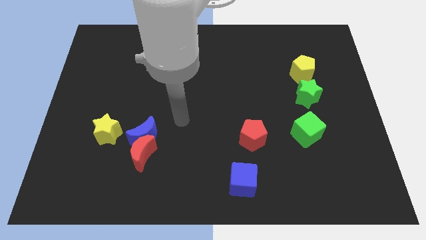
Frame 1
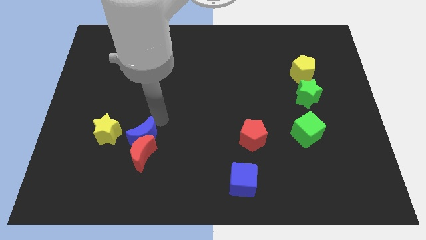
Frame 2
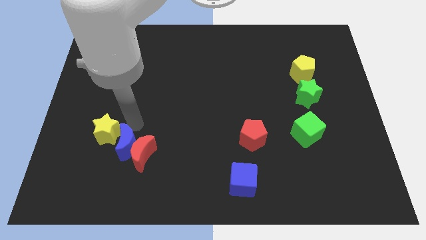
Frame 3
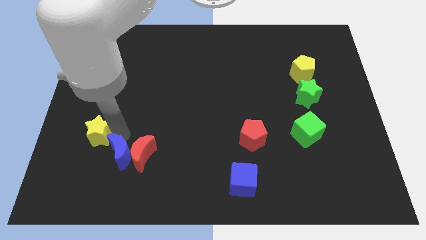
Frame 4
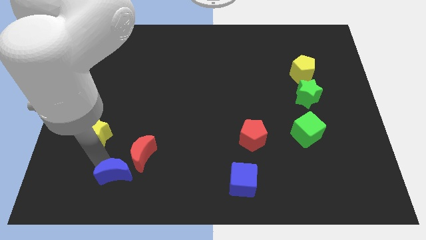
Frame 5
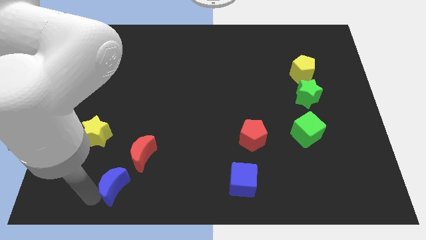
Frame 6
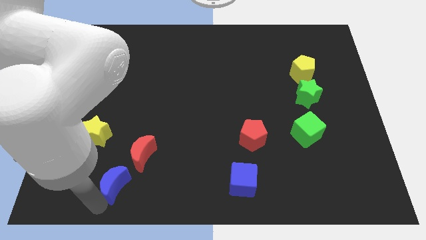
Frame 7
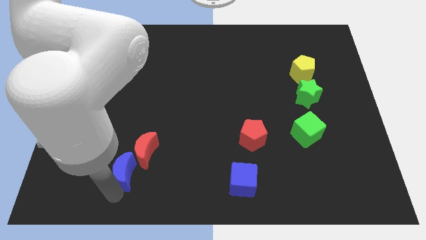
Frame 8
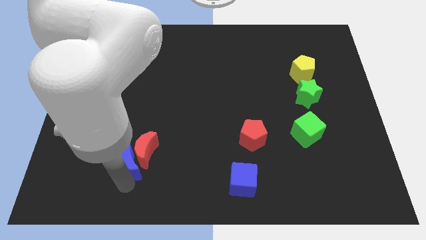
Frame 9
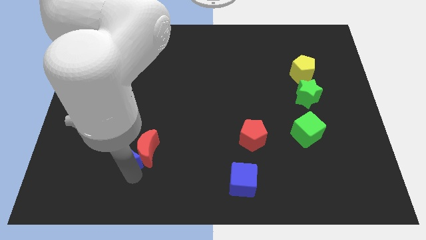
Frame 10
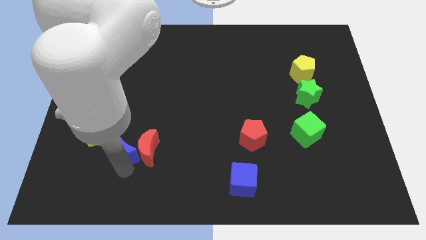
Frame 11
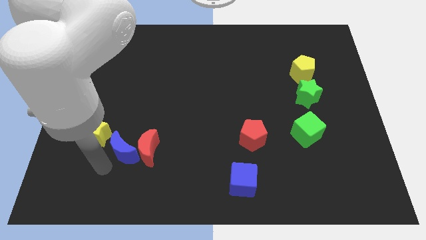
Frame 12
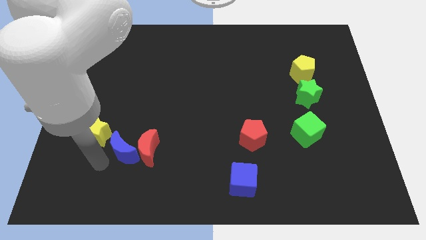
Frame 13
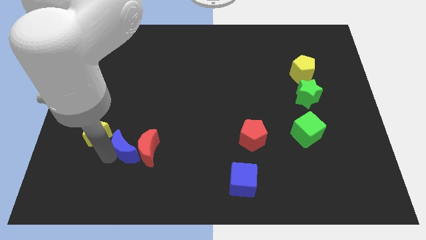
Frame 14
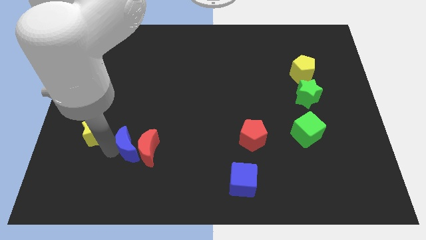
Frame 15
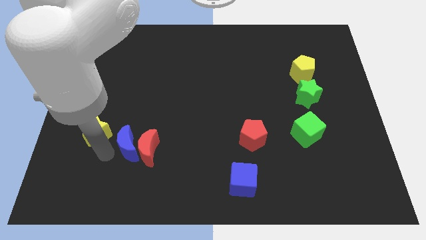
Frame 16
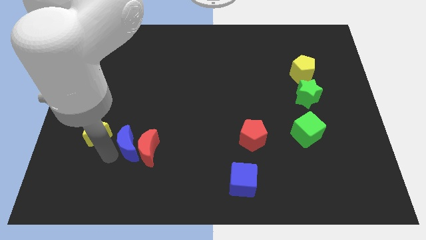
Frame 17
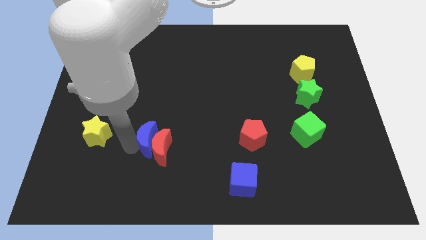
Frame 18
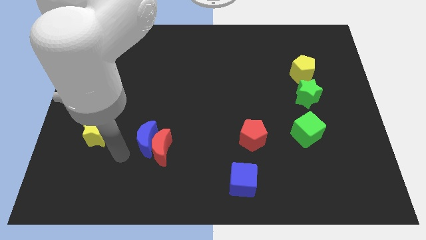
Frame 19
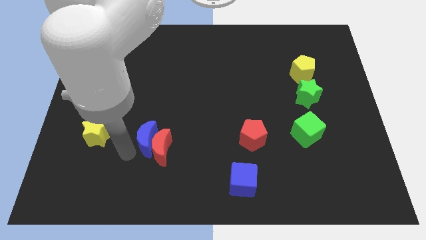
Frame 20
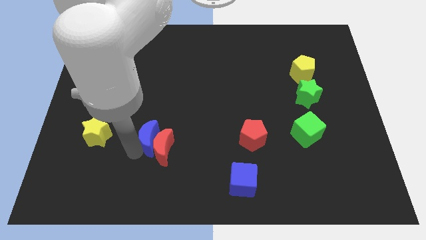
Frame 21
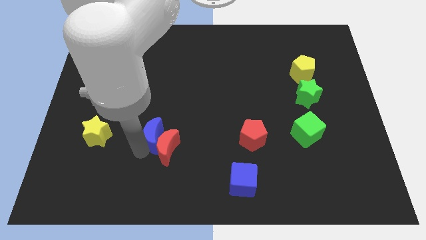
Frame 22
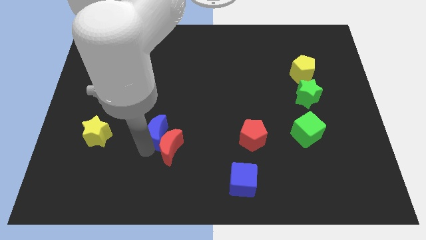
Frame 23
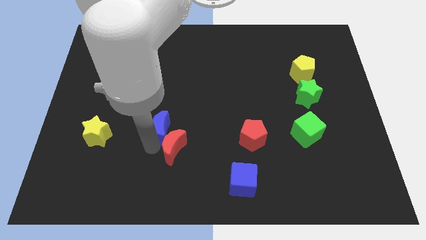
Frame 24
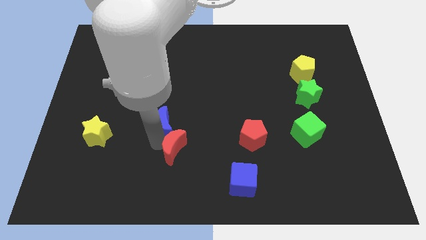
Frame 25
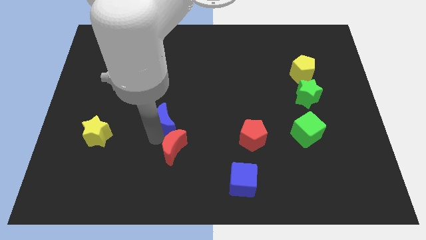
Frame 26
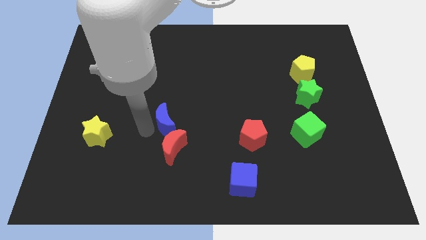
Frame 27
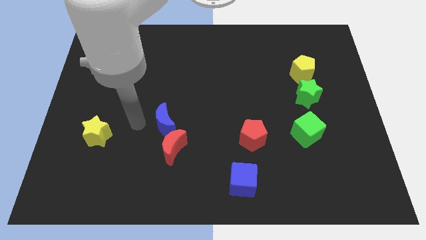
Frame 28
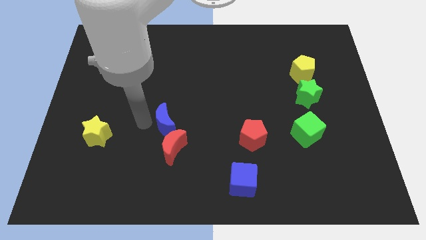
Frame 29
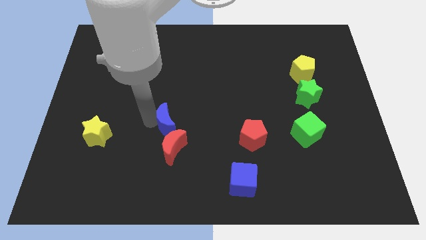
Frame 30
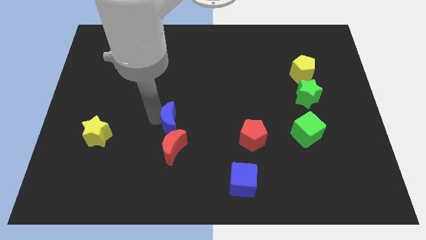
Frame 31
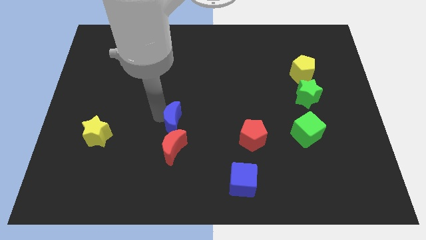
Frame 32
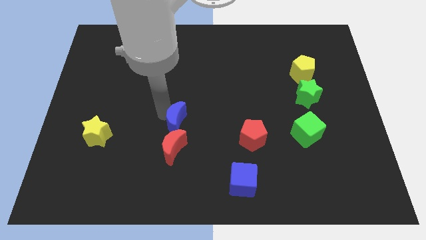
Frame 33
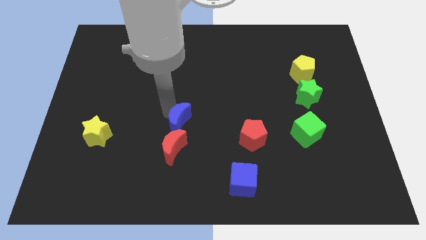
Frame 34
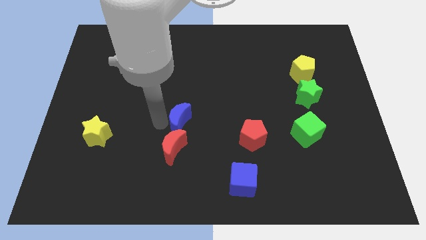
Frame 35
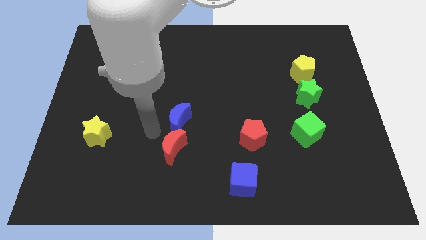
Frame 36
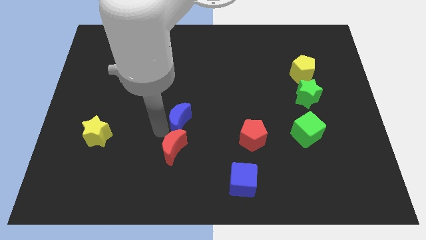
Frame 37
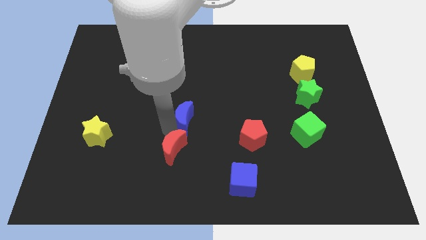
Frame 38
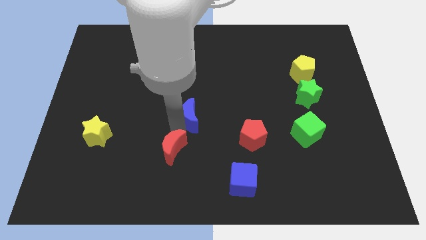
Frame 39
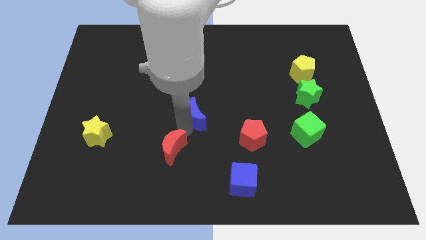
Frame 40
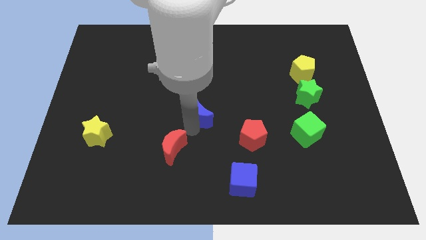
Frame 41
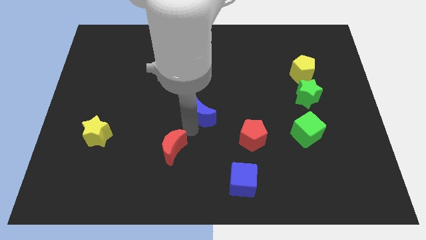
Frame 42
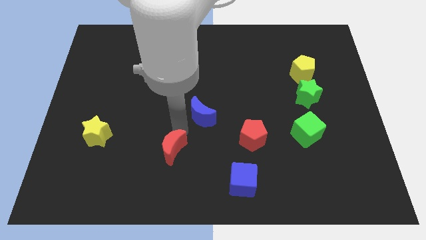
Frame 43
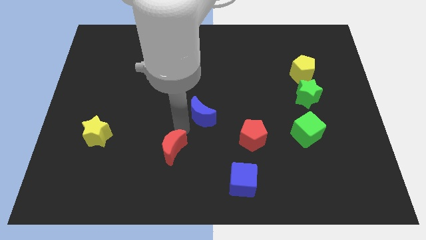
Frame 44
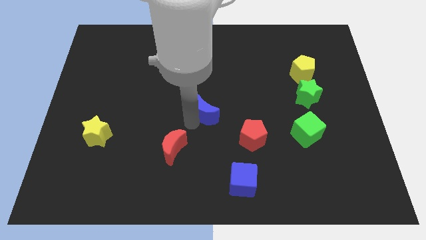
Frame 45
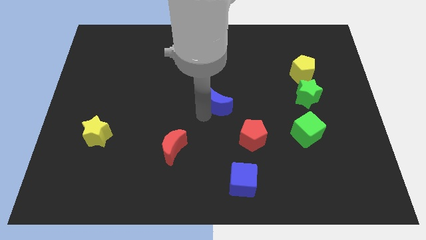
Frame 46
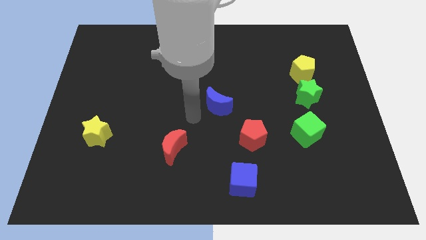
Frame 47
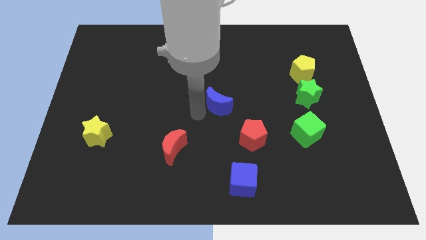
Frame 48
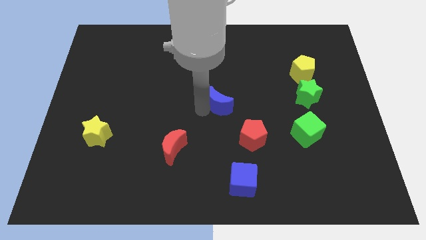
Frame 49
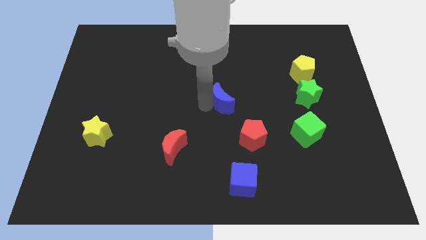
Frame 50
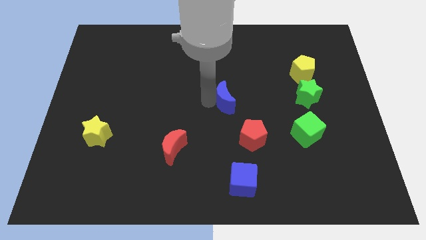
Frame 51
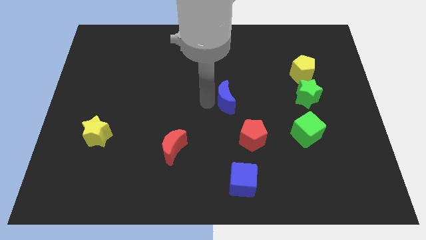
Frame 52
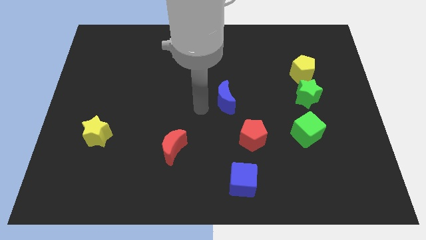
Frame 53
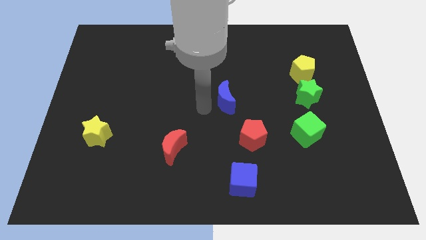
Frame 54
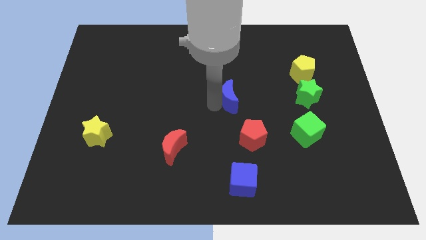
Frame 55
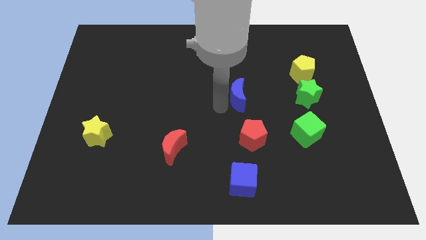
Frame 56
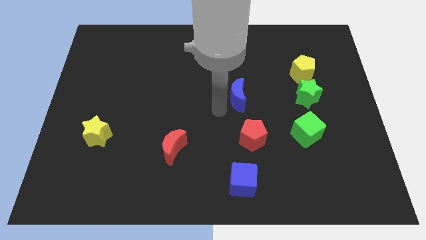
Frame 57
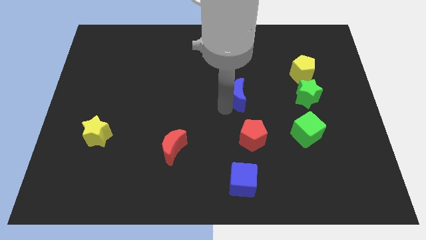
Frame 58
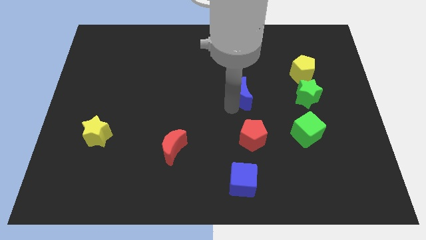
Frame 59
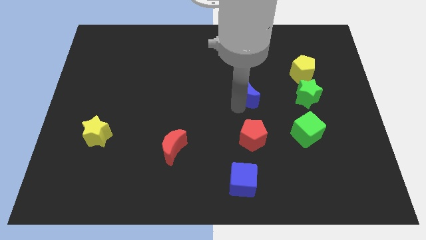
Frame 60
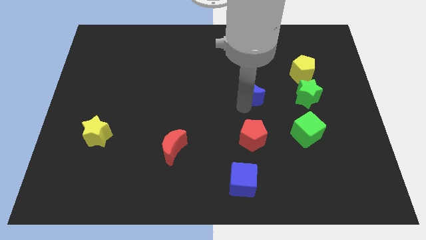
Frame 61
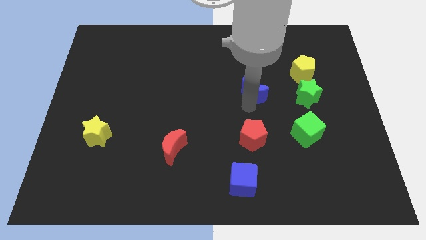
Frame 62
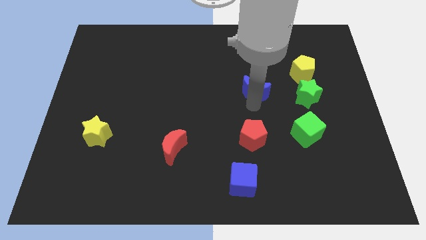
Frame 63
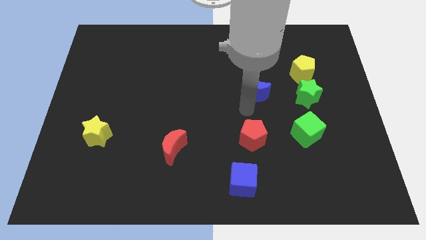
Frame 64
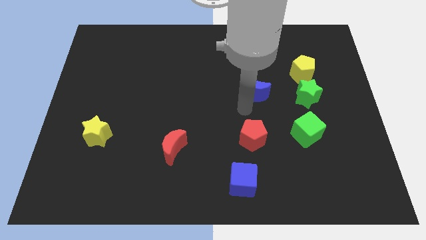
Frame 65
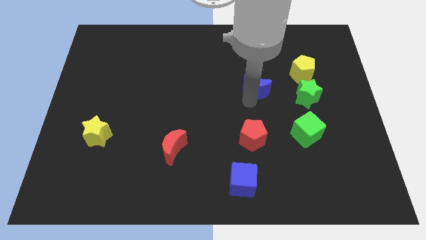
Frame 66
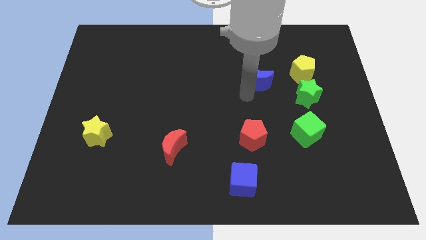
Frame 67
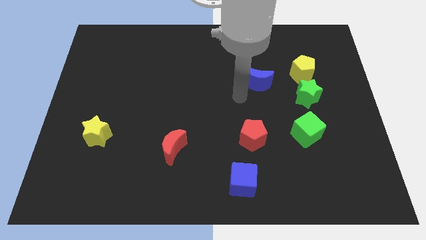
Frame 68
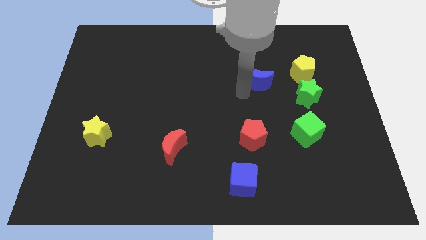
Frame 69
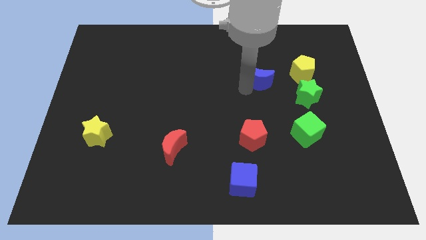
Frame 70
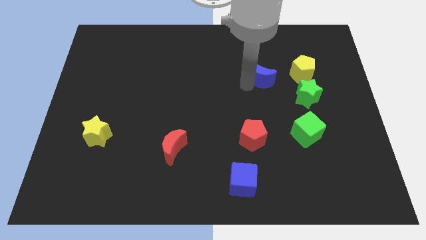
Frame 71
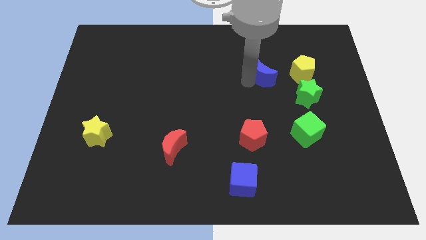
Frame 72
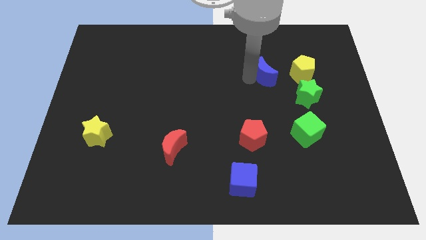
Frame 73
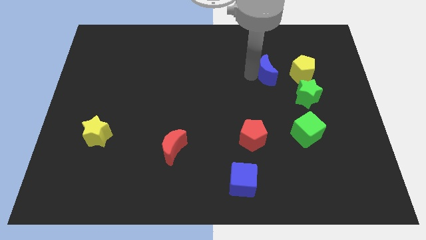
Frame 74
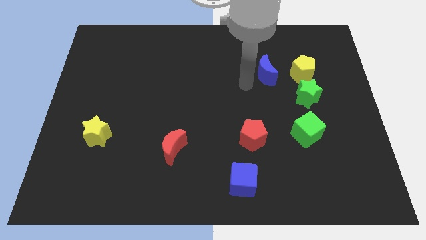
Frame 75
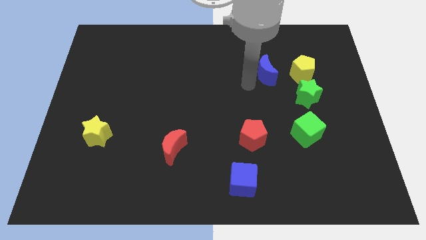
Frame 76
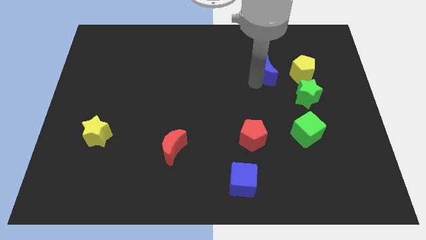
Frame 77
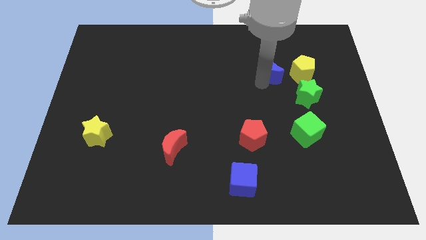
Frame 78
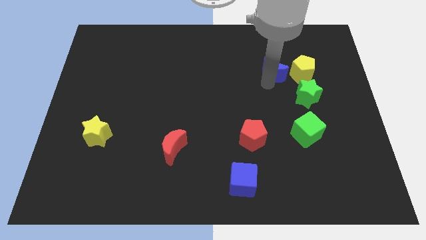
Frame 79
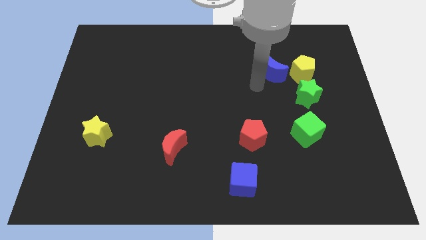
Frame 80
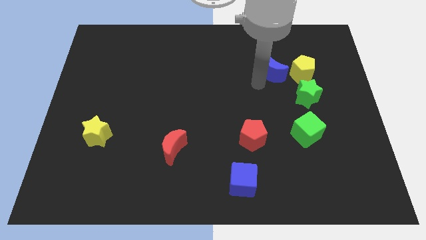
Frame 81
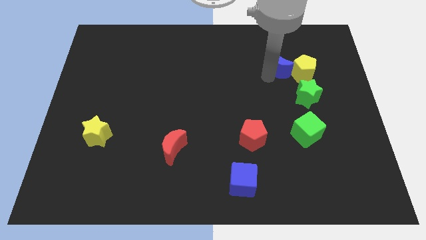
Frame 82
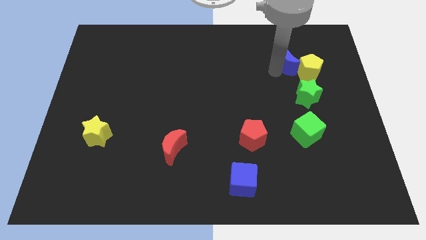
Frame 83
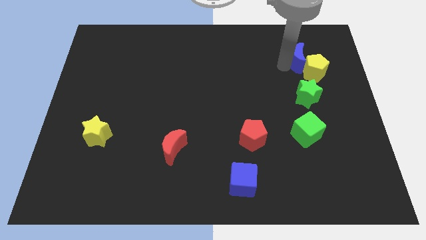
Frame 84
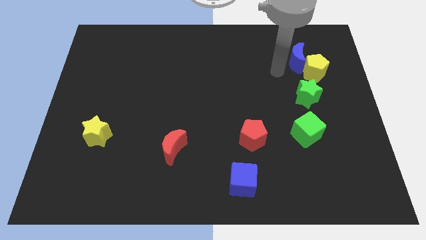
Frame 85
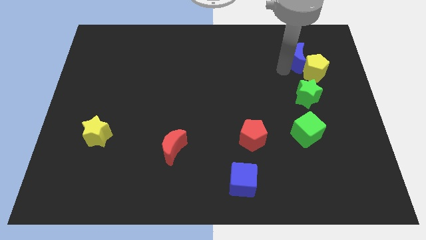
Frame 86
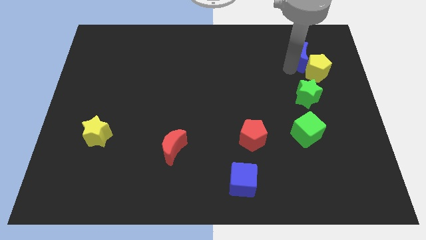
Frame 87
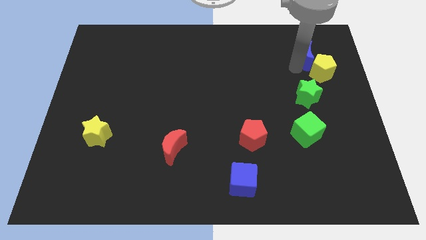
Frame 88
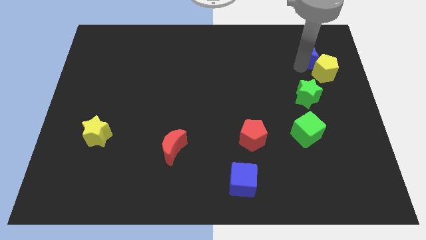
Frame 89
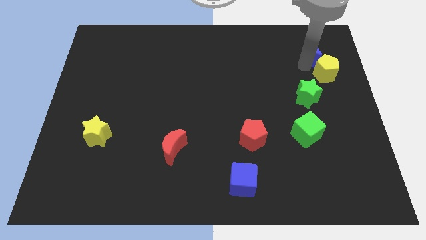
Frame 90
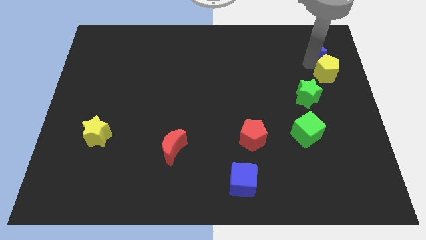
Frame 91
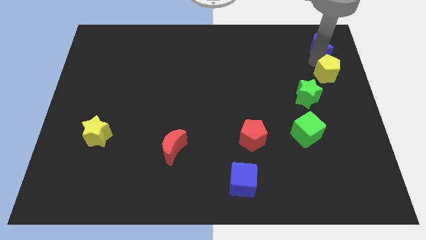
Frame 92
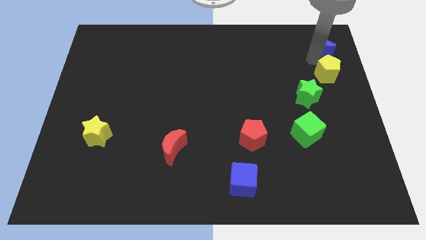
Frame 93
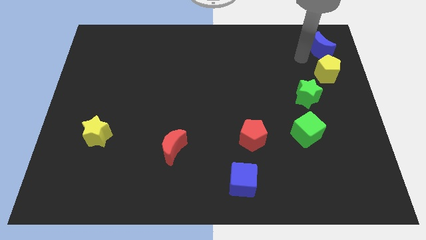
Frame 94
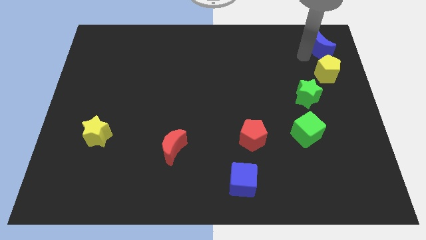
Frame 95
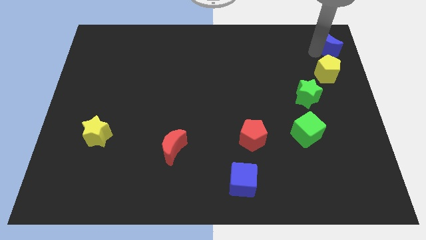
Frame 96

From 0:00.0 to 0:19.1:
slide the blue moon to the top right
